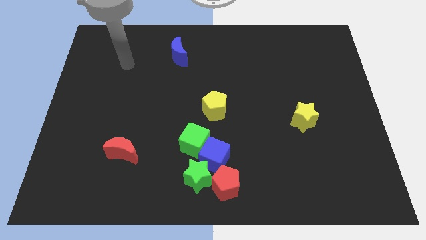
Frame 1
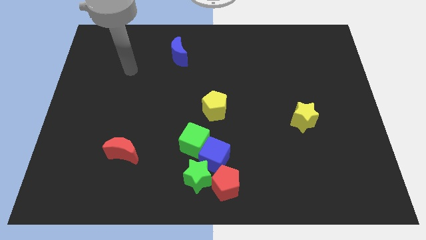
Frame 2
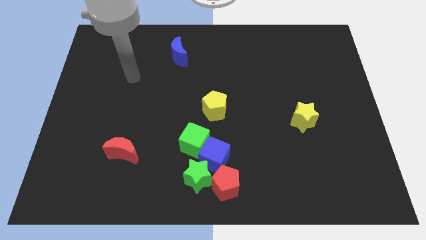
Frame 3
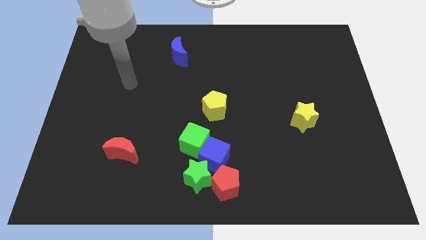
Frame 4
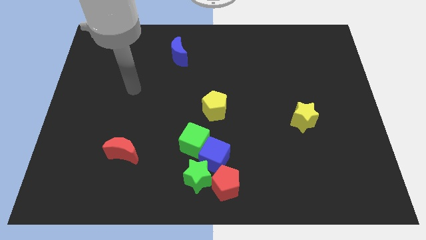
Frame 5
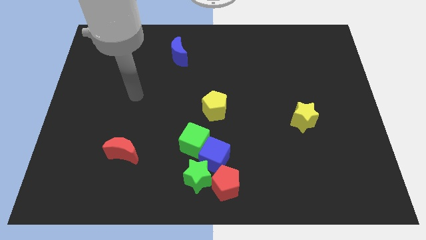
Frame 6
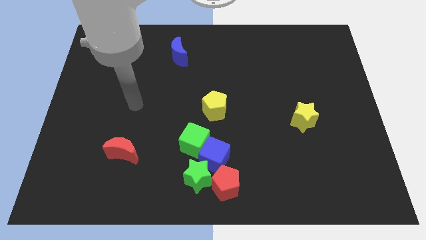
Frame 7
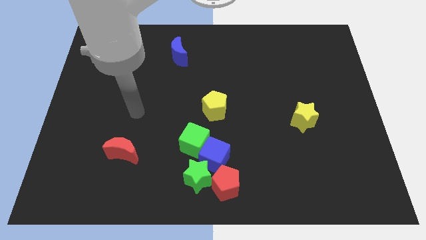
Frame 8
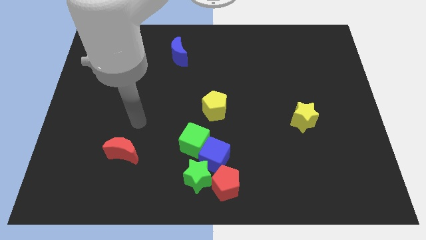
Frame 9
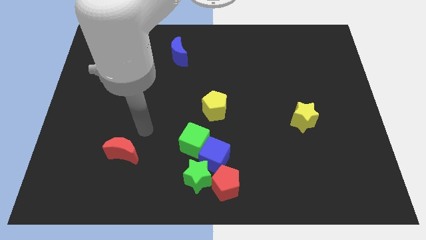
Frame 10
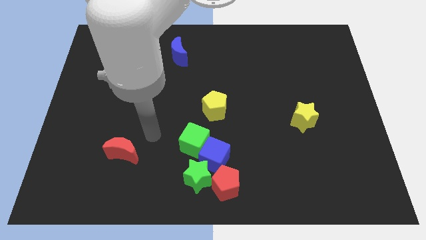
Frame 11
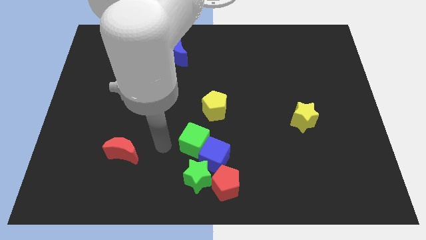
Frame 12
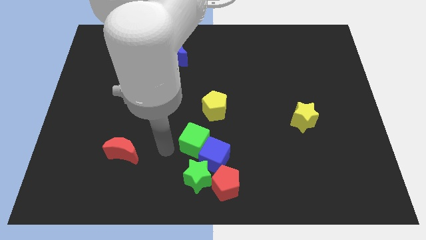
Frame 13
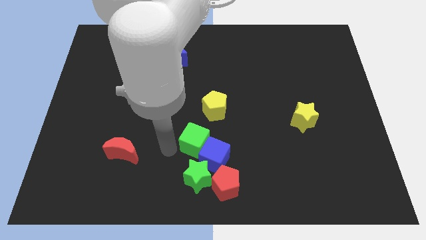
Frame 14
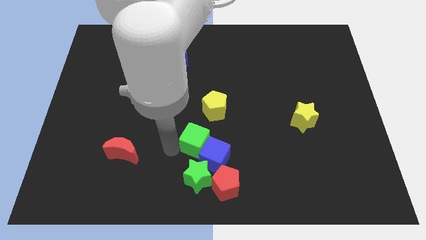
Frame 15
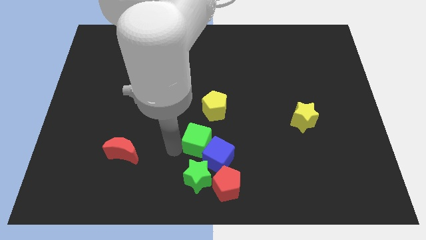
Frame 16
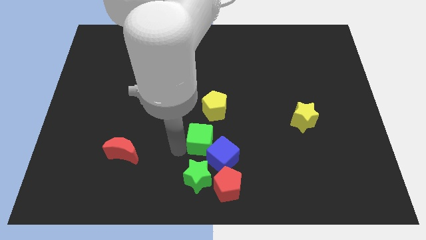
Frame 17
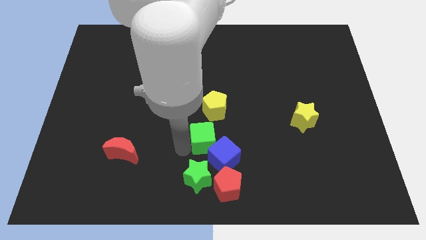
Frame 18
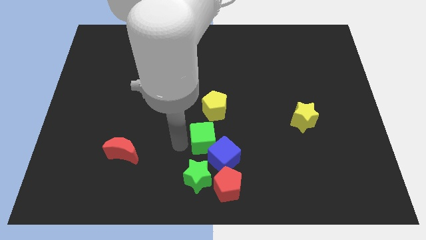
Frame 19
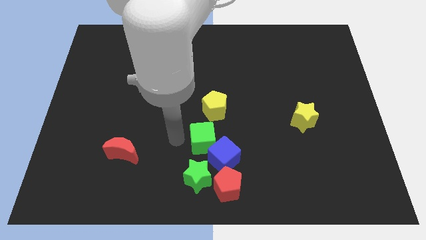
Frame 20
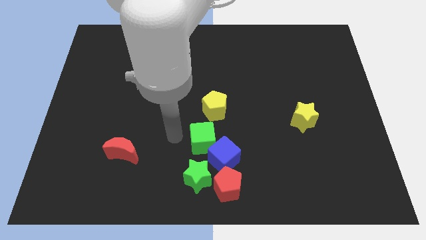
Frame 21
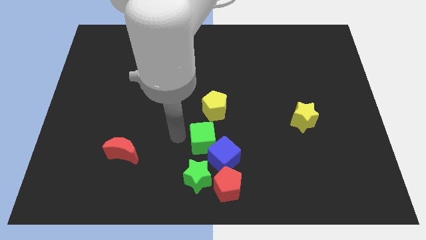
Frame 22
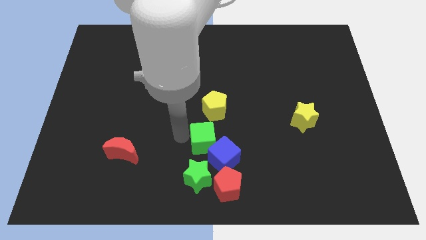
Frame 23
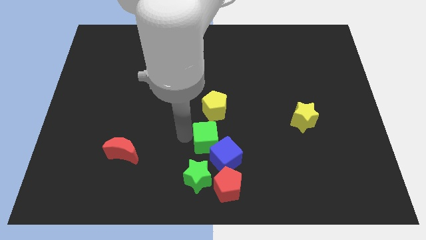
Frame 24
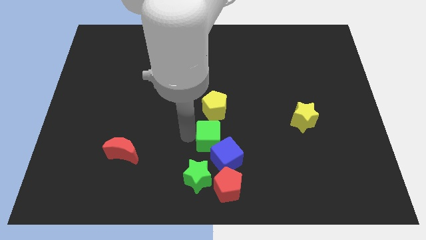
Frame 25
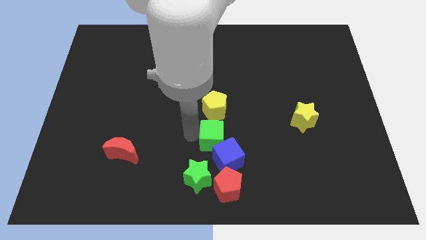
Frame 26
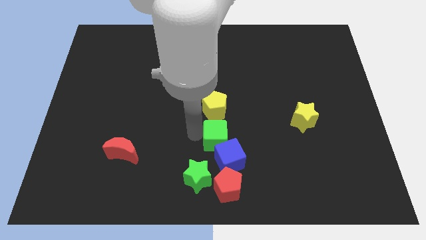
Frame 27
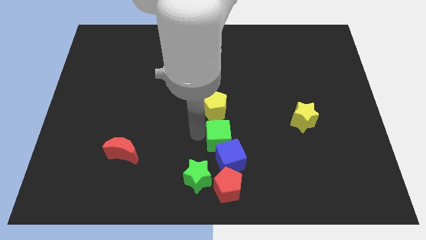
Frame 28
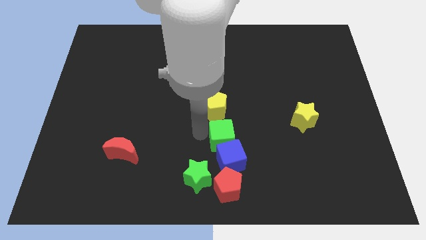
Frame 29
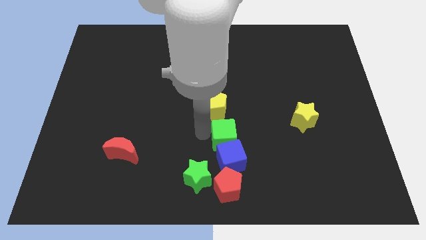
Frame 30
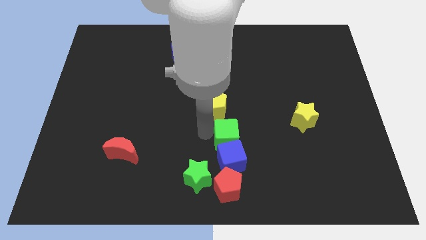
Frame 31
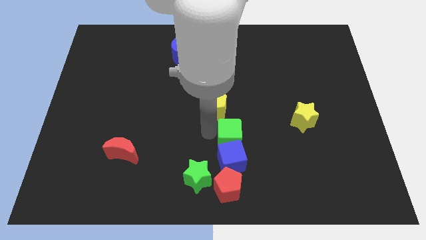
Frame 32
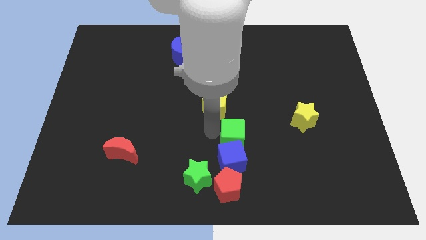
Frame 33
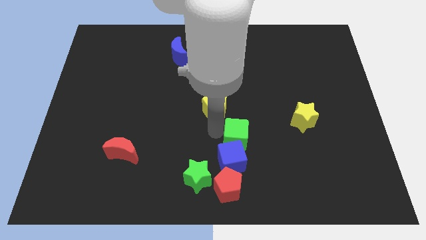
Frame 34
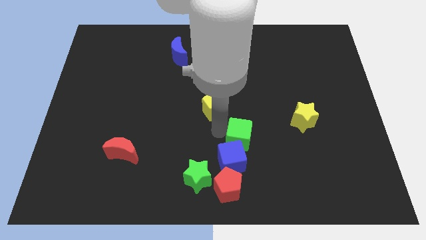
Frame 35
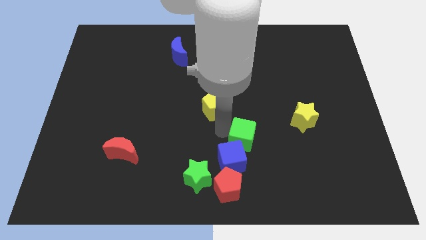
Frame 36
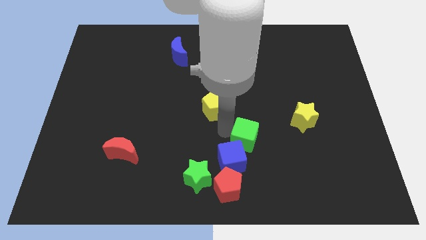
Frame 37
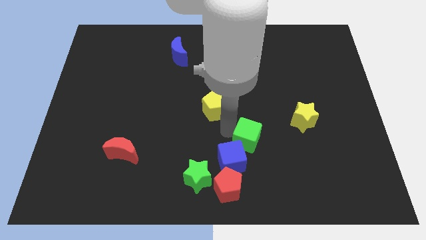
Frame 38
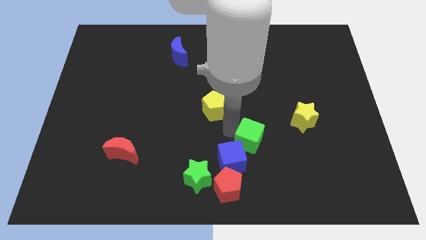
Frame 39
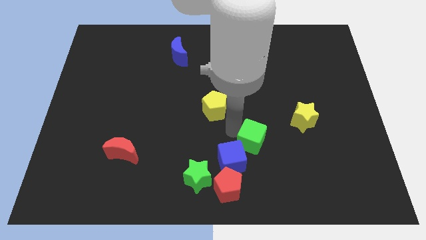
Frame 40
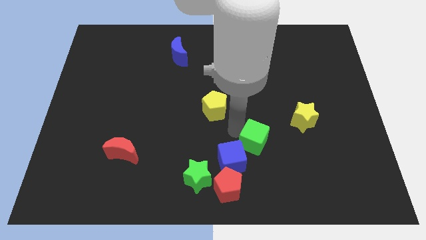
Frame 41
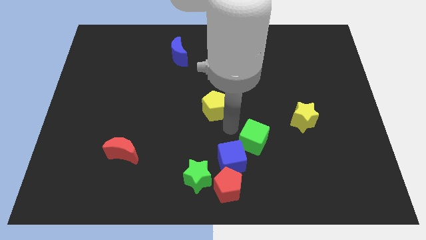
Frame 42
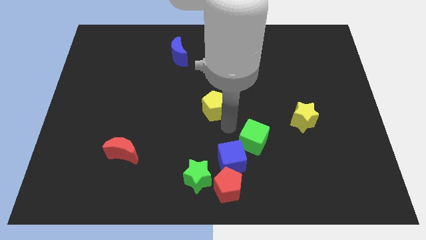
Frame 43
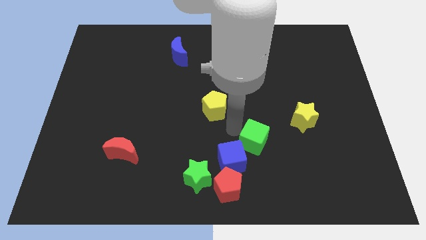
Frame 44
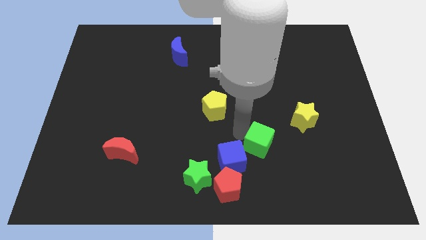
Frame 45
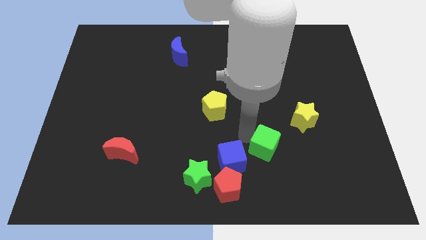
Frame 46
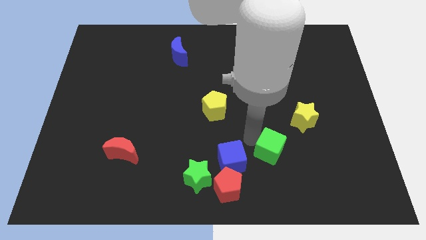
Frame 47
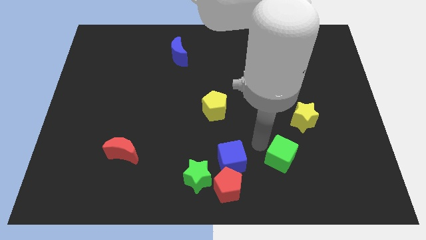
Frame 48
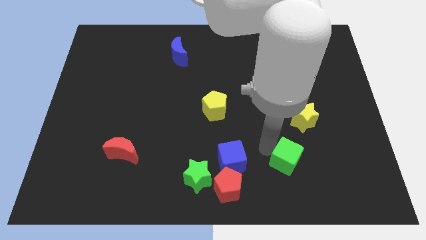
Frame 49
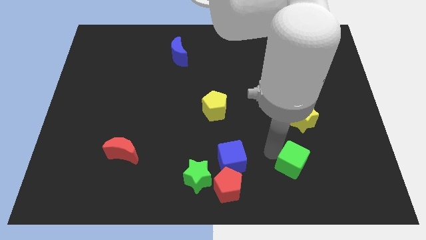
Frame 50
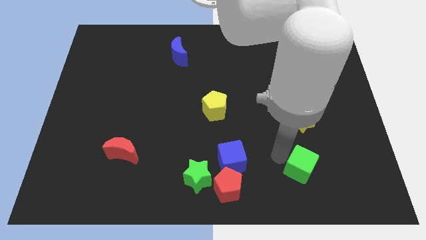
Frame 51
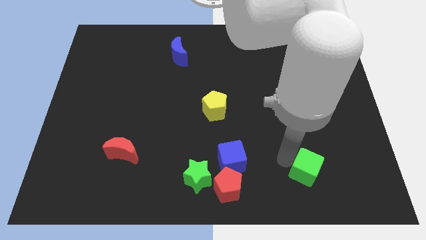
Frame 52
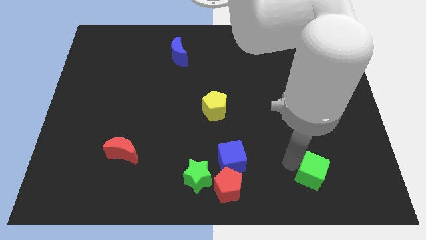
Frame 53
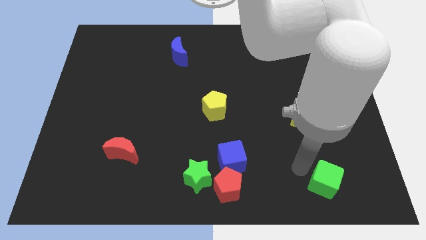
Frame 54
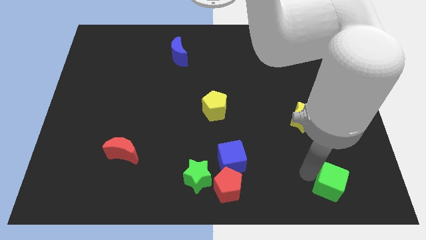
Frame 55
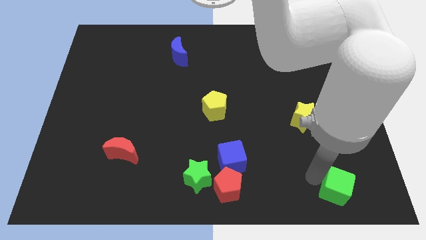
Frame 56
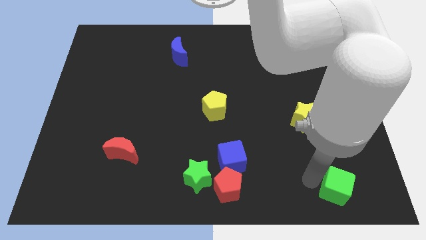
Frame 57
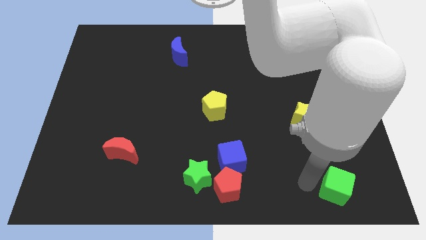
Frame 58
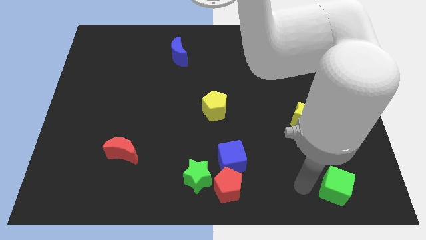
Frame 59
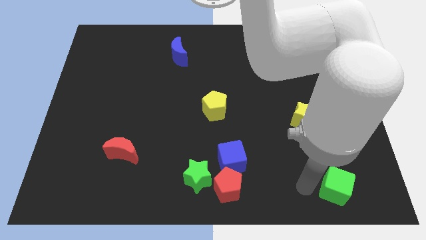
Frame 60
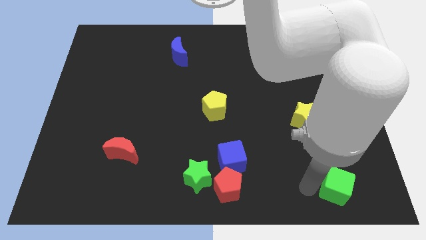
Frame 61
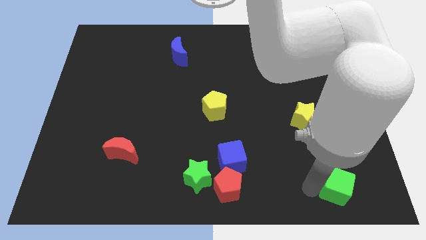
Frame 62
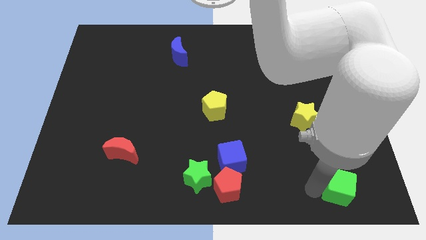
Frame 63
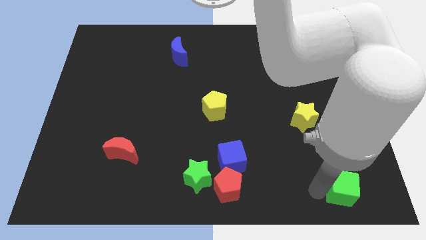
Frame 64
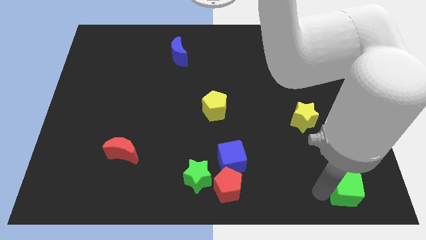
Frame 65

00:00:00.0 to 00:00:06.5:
slide the green cube to the bottom right
